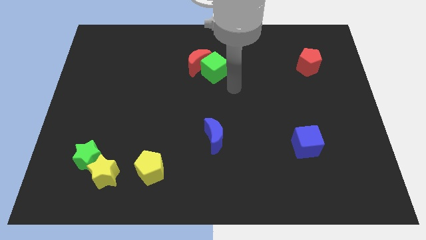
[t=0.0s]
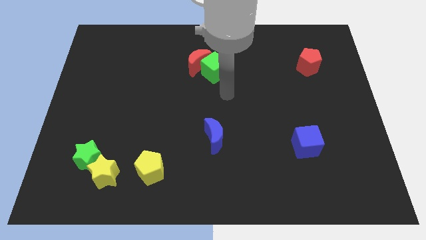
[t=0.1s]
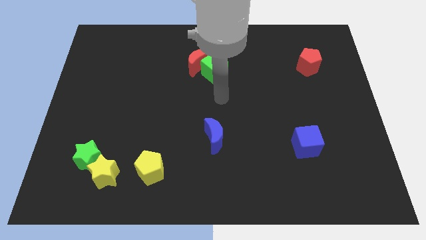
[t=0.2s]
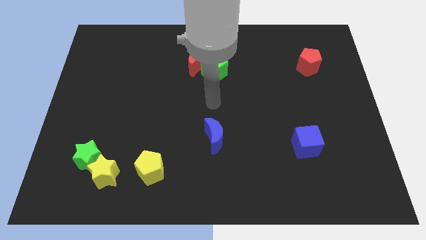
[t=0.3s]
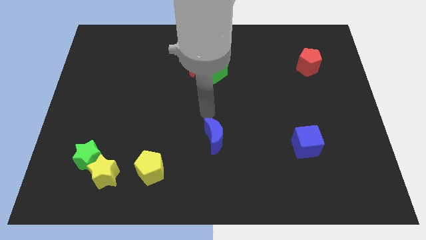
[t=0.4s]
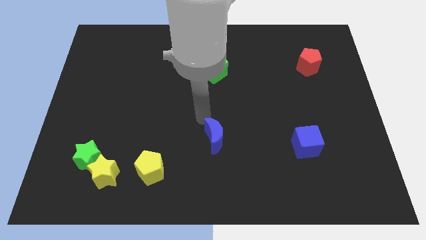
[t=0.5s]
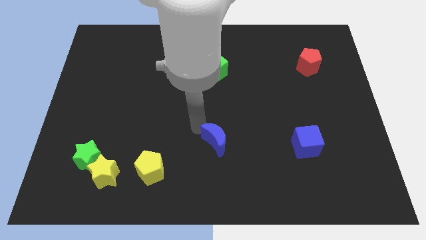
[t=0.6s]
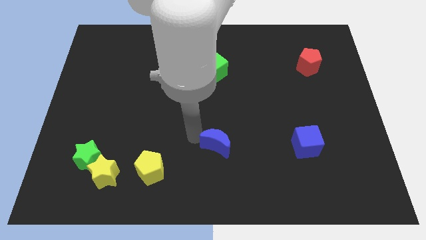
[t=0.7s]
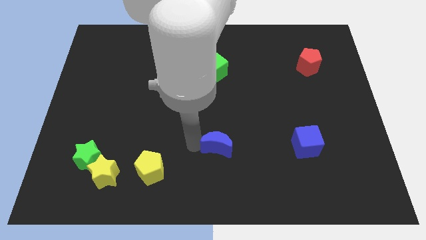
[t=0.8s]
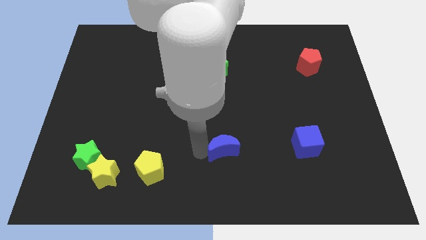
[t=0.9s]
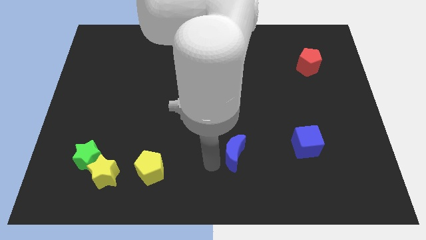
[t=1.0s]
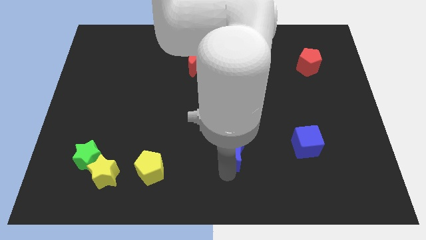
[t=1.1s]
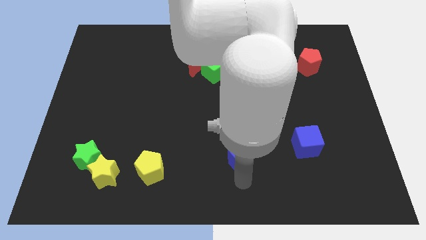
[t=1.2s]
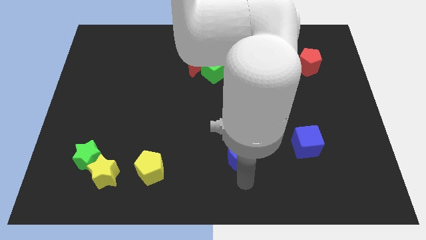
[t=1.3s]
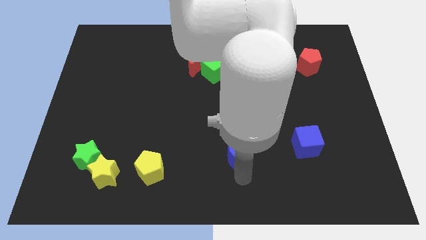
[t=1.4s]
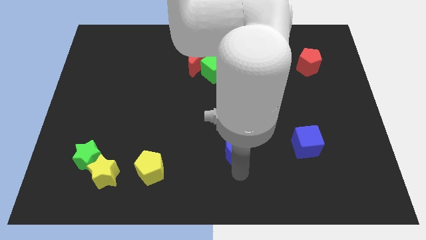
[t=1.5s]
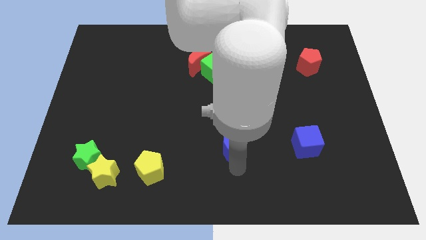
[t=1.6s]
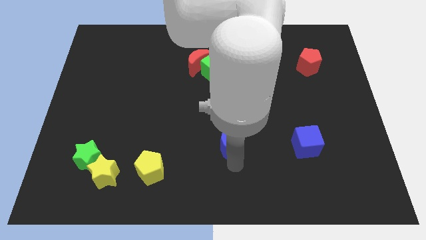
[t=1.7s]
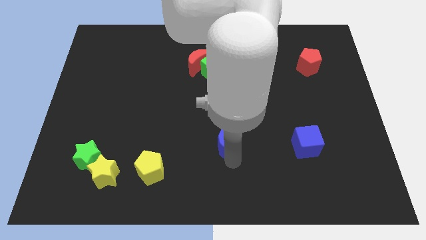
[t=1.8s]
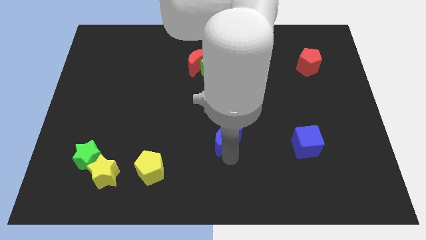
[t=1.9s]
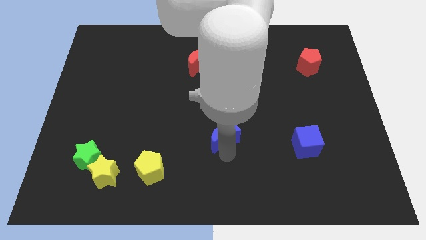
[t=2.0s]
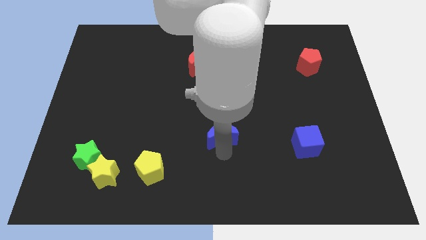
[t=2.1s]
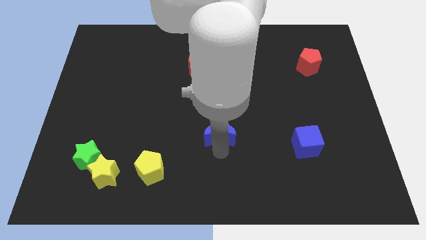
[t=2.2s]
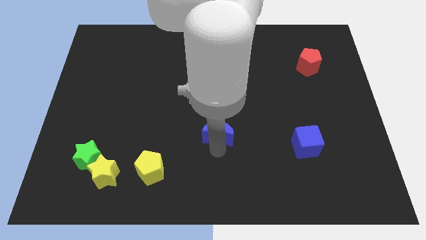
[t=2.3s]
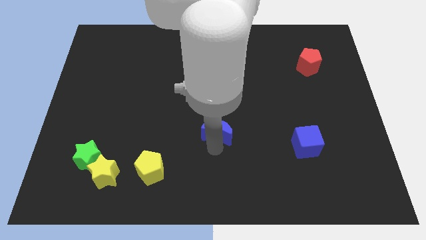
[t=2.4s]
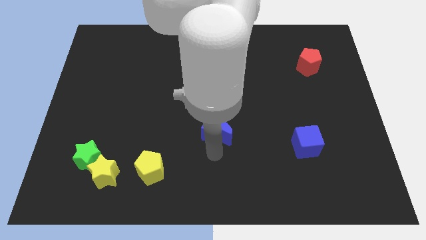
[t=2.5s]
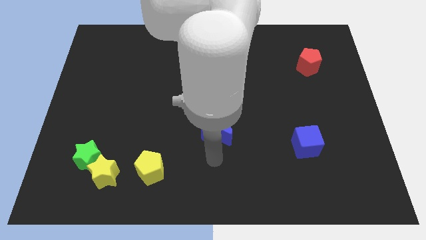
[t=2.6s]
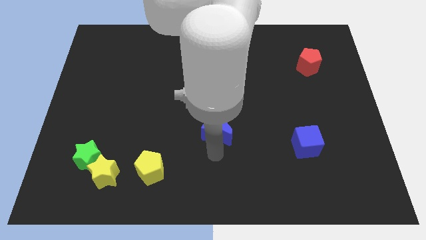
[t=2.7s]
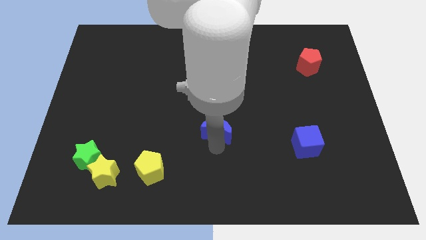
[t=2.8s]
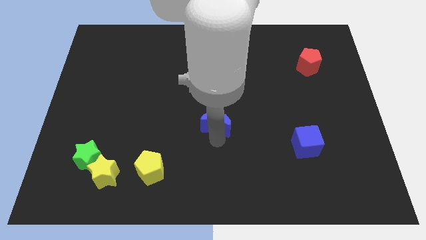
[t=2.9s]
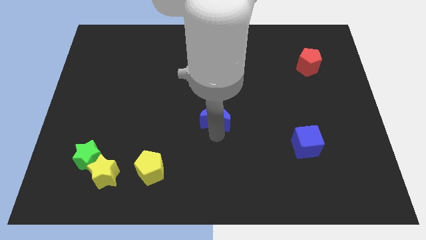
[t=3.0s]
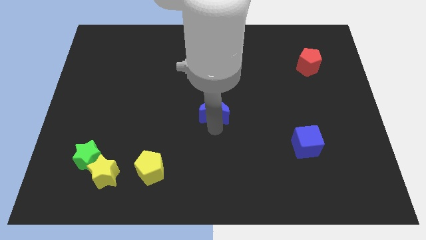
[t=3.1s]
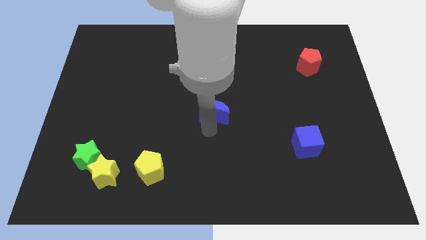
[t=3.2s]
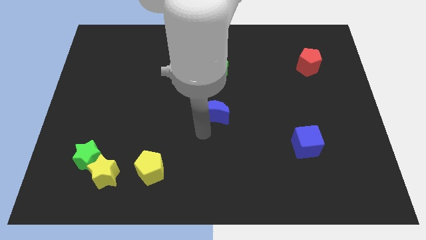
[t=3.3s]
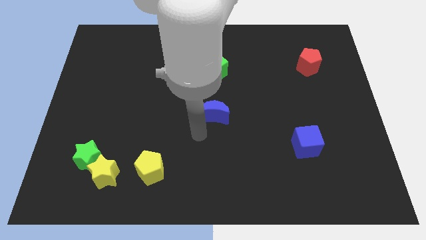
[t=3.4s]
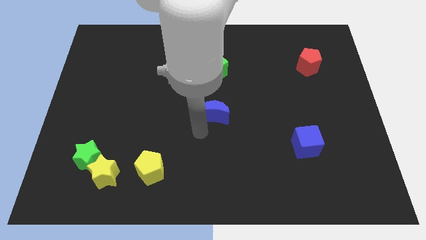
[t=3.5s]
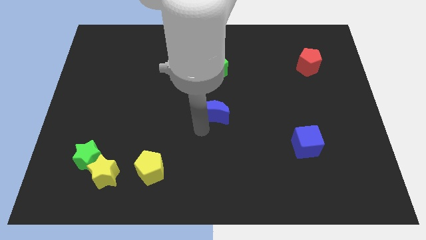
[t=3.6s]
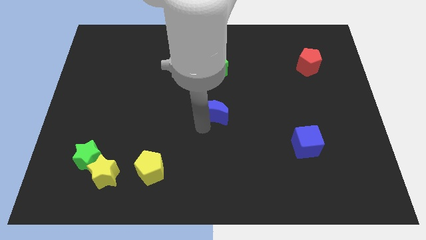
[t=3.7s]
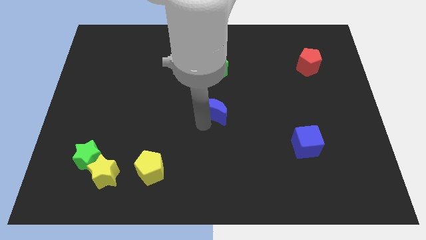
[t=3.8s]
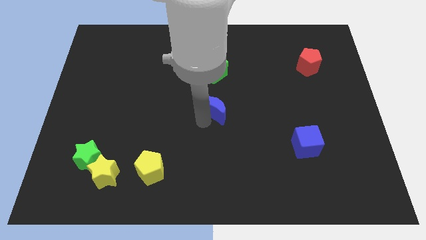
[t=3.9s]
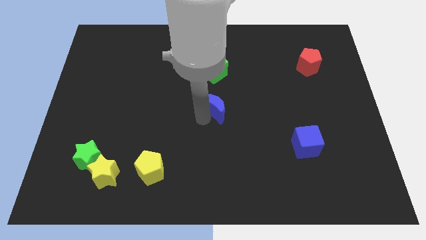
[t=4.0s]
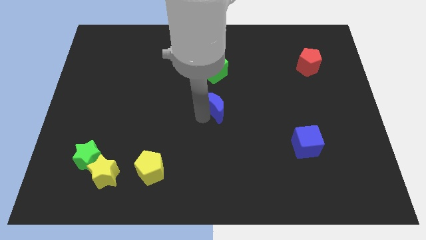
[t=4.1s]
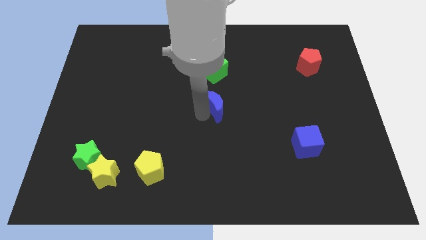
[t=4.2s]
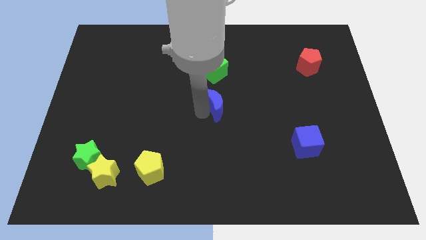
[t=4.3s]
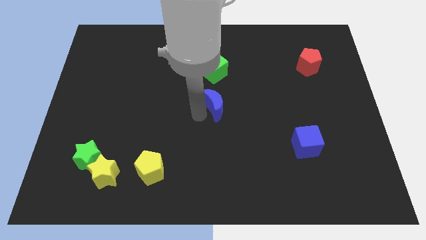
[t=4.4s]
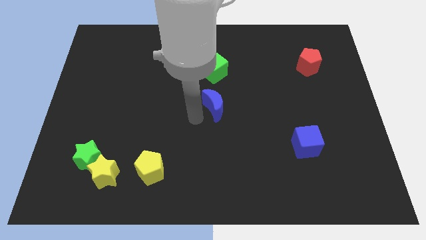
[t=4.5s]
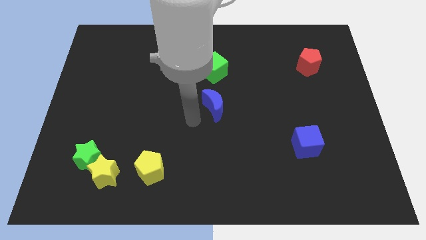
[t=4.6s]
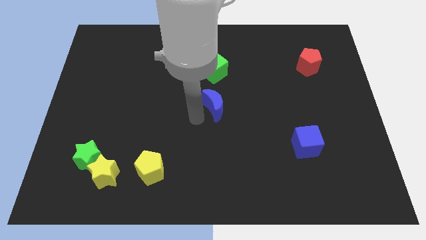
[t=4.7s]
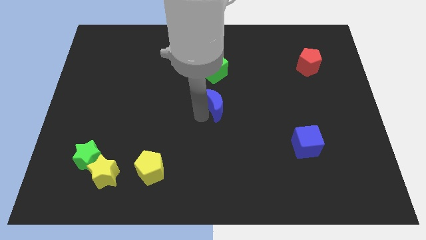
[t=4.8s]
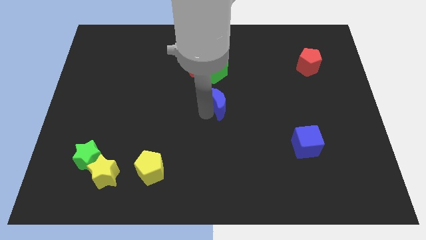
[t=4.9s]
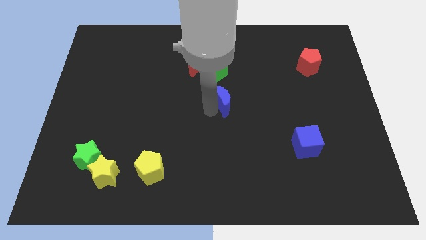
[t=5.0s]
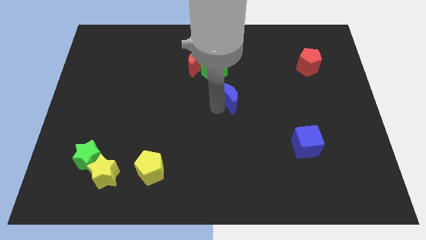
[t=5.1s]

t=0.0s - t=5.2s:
push the blue moon to the bottom right side of the green cube

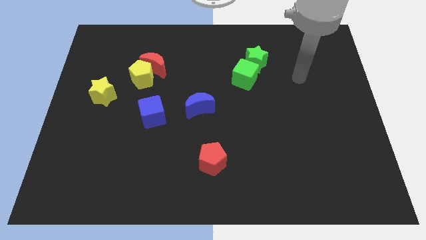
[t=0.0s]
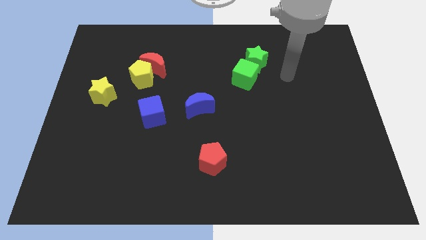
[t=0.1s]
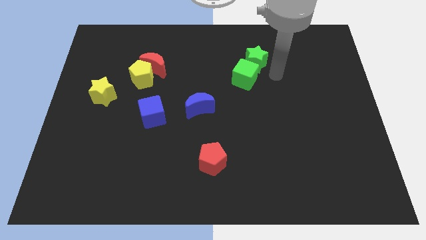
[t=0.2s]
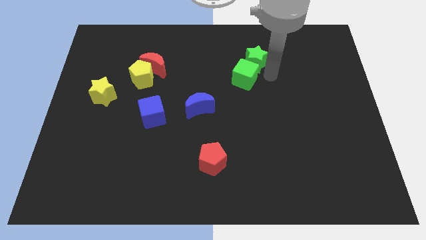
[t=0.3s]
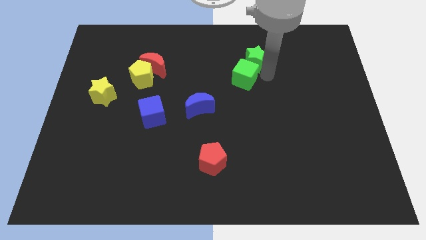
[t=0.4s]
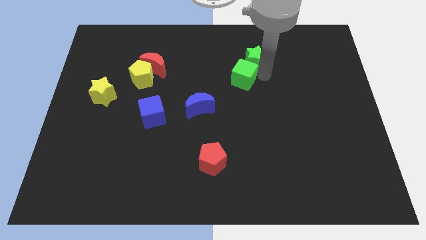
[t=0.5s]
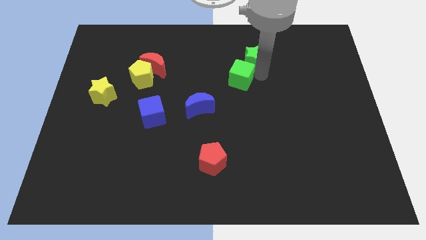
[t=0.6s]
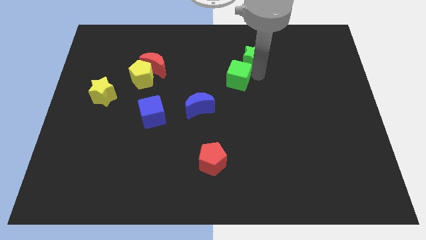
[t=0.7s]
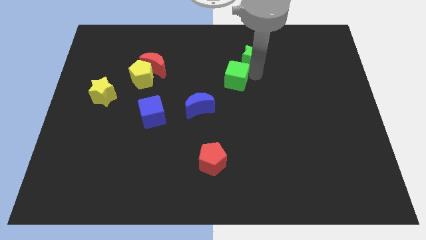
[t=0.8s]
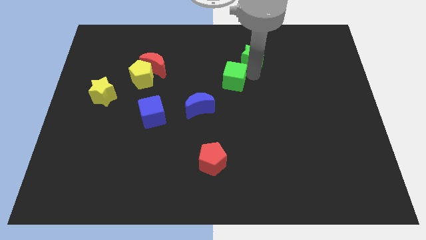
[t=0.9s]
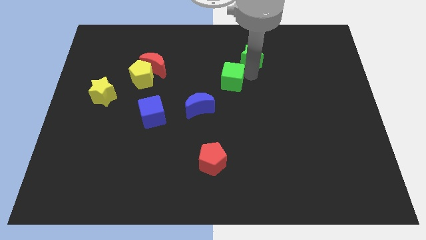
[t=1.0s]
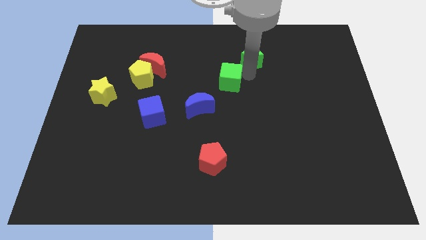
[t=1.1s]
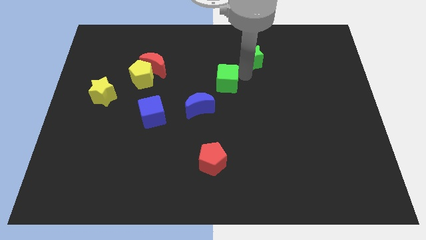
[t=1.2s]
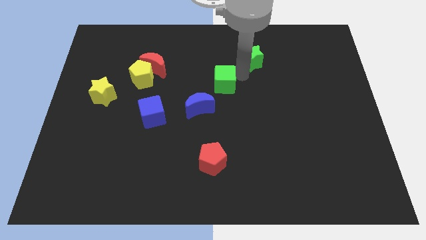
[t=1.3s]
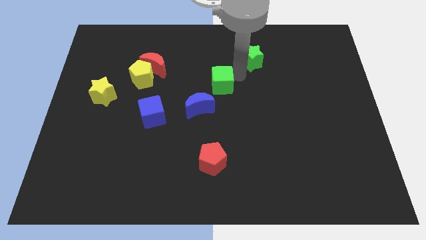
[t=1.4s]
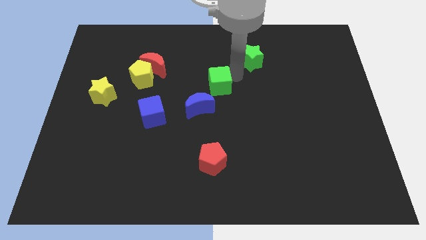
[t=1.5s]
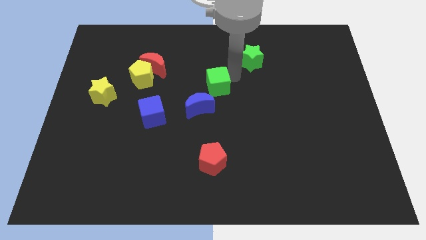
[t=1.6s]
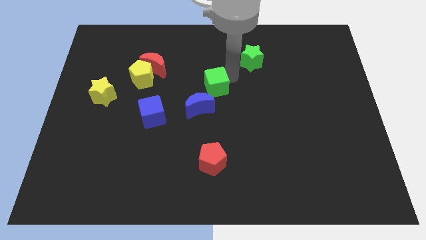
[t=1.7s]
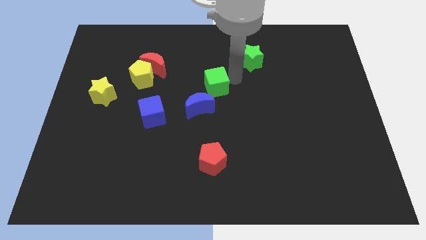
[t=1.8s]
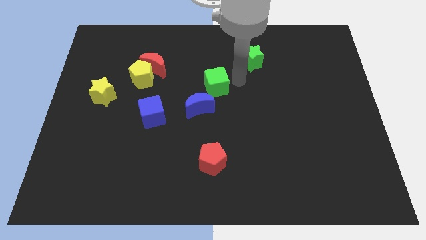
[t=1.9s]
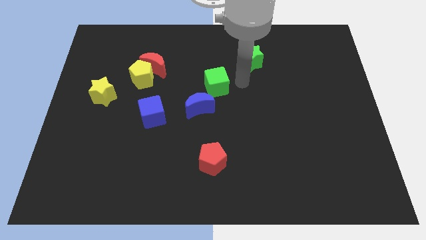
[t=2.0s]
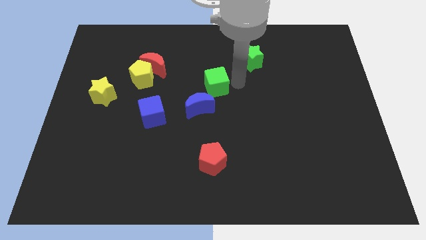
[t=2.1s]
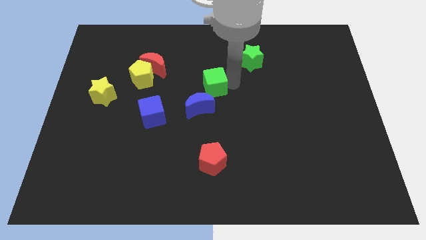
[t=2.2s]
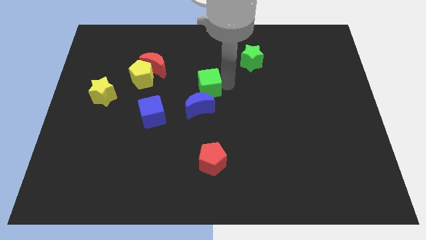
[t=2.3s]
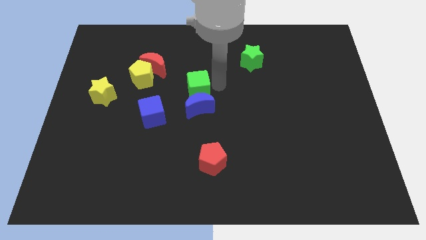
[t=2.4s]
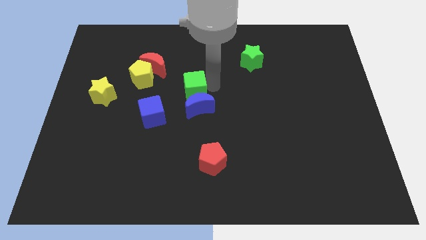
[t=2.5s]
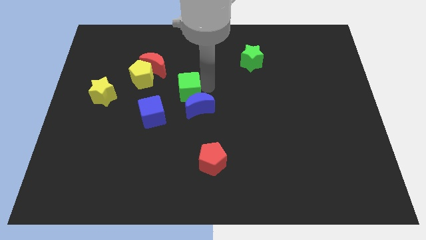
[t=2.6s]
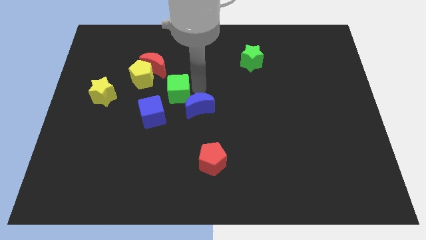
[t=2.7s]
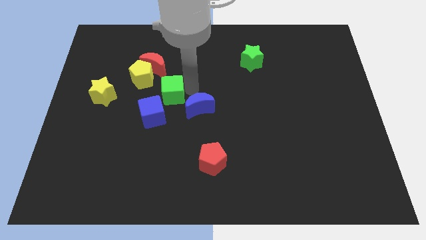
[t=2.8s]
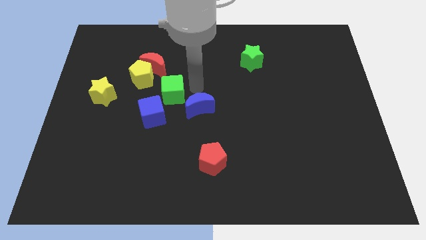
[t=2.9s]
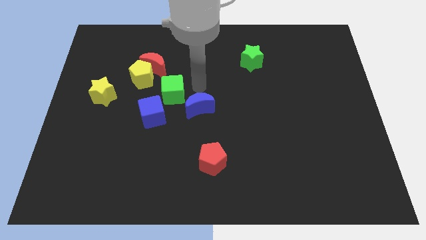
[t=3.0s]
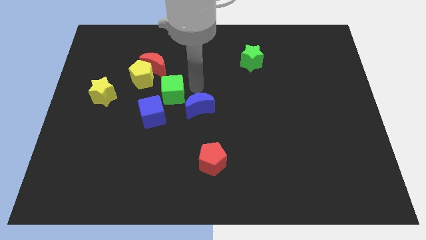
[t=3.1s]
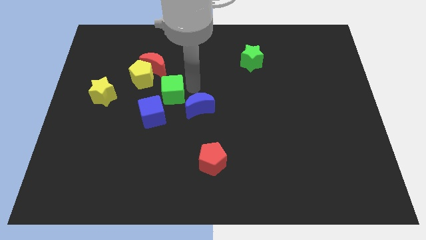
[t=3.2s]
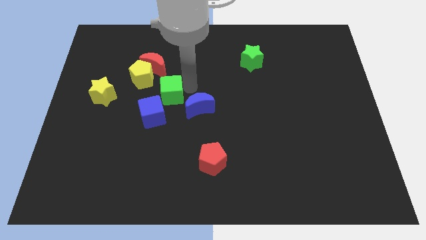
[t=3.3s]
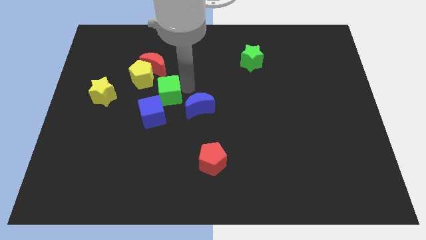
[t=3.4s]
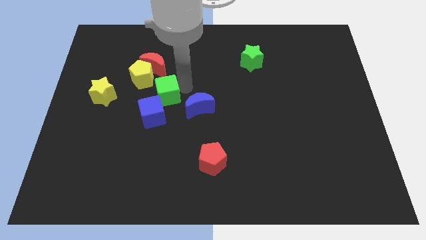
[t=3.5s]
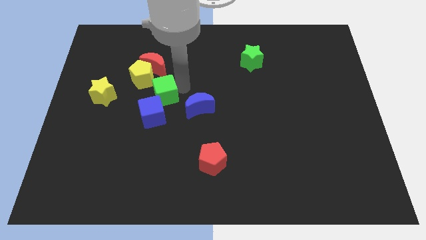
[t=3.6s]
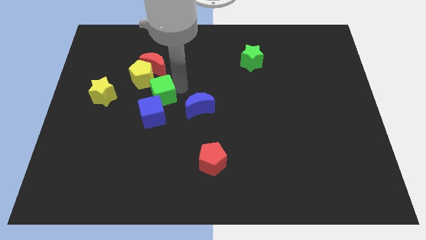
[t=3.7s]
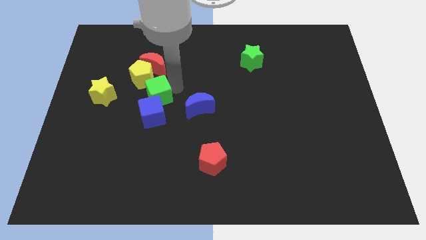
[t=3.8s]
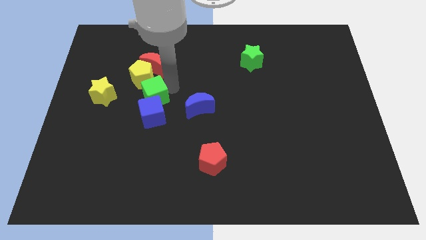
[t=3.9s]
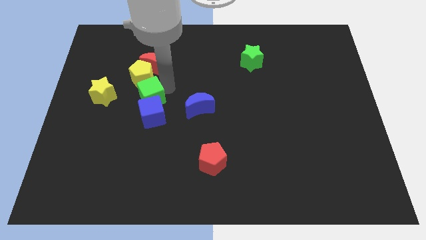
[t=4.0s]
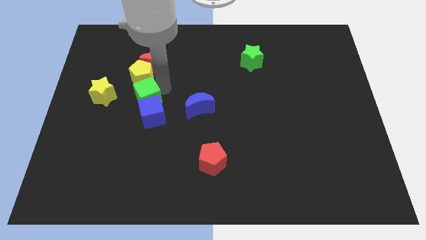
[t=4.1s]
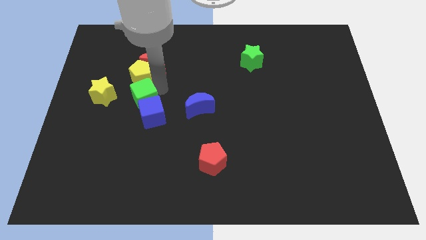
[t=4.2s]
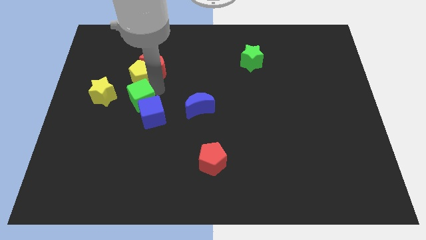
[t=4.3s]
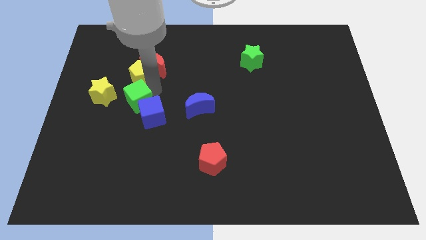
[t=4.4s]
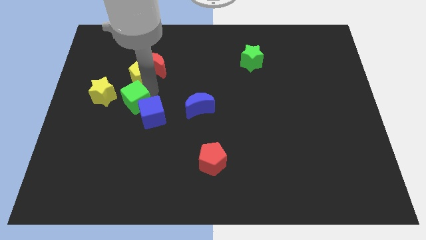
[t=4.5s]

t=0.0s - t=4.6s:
slide the green cube diagonally down and to the right of the yellow star